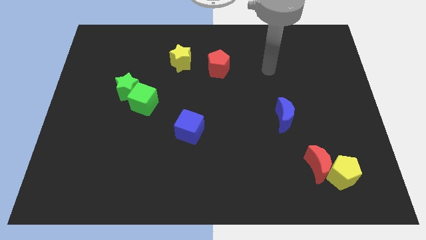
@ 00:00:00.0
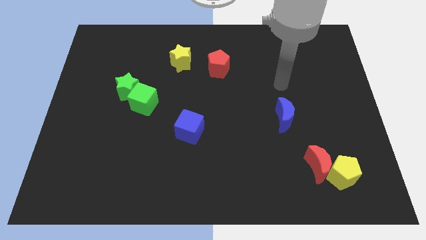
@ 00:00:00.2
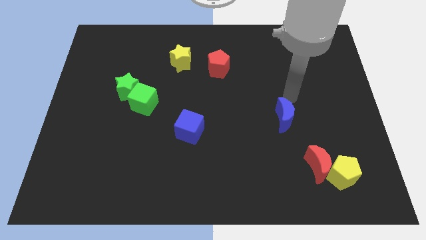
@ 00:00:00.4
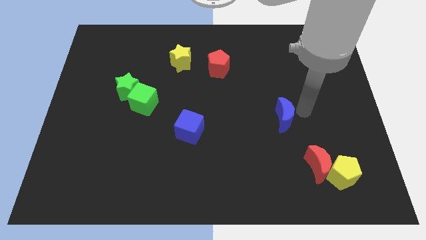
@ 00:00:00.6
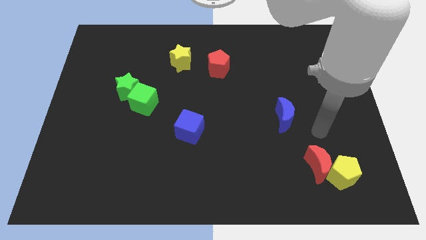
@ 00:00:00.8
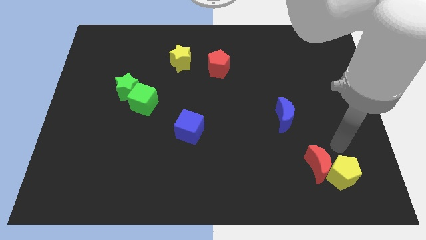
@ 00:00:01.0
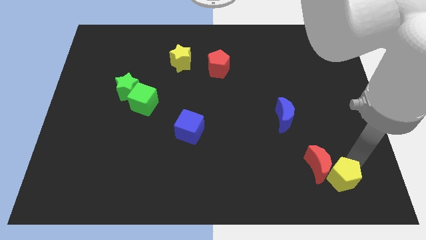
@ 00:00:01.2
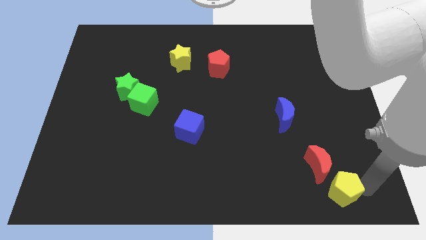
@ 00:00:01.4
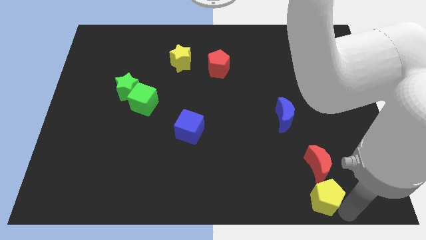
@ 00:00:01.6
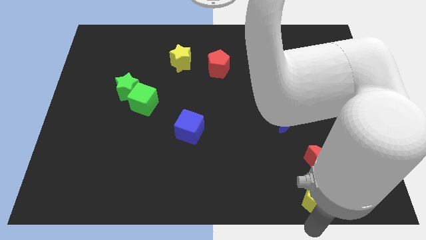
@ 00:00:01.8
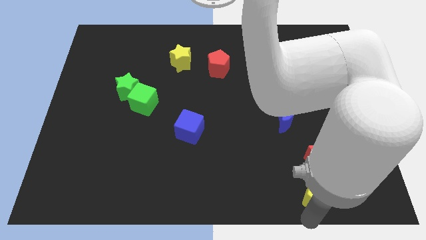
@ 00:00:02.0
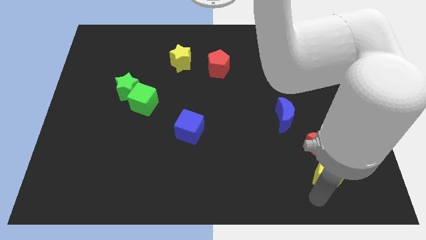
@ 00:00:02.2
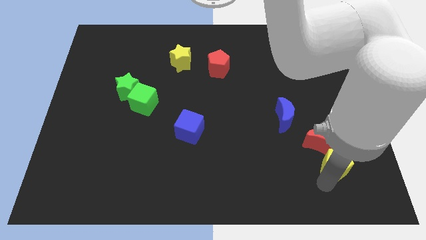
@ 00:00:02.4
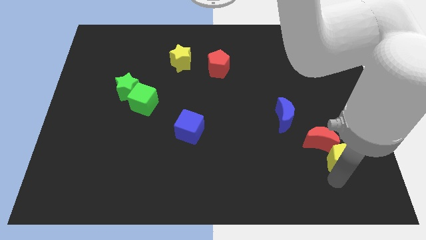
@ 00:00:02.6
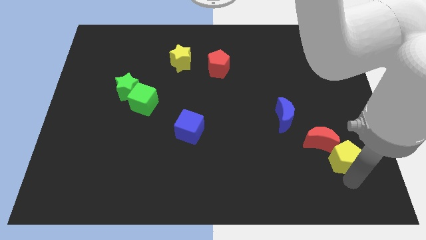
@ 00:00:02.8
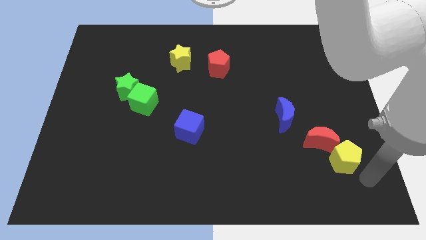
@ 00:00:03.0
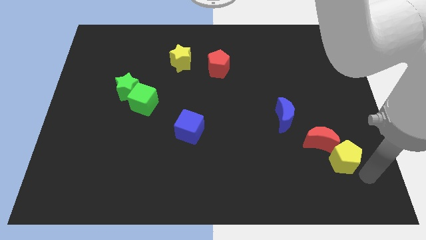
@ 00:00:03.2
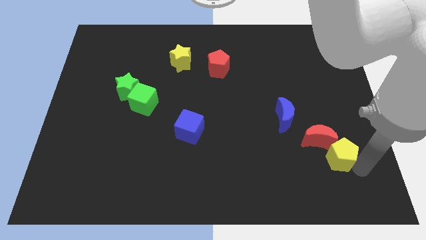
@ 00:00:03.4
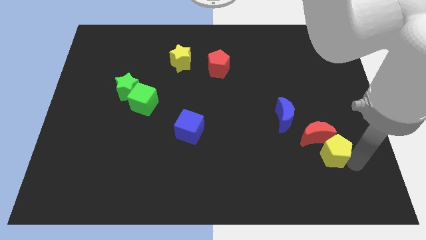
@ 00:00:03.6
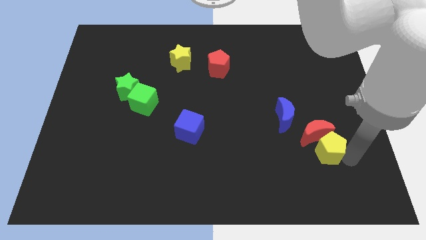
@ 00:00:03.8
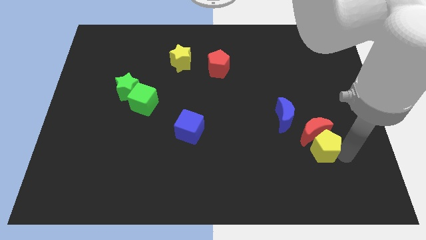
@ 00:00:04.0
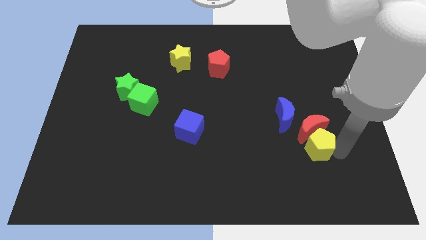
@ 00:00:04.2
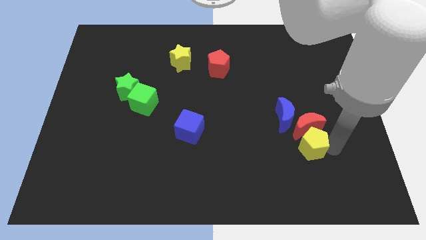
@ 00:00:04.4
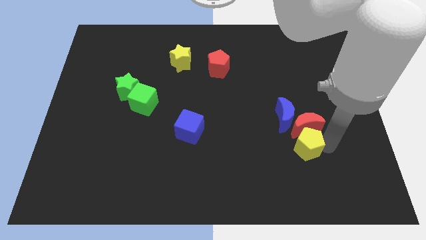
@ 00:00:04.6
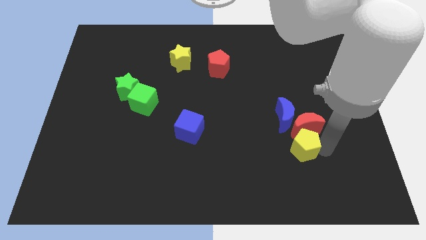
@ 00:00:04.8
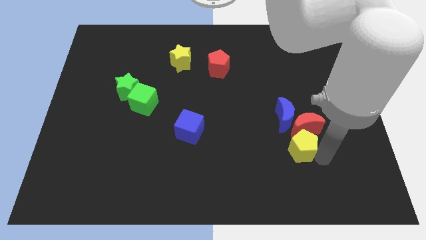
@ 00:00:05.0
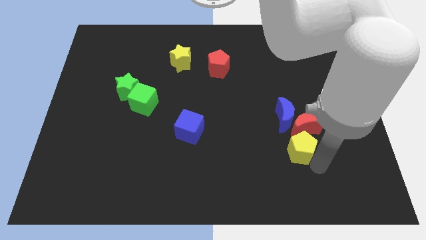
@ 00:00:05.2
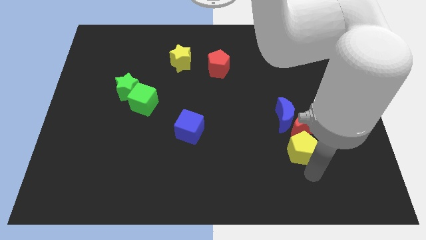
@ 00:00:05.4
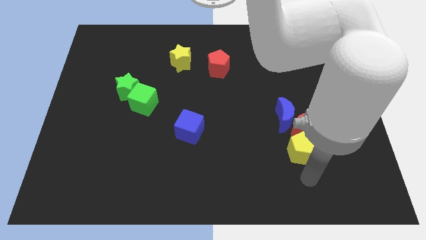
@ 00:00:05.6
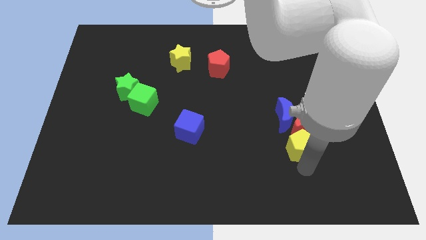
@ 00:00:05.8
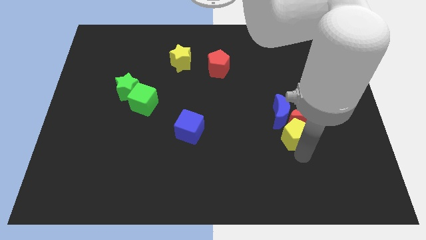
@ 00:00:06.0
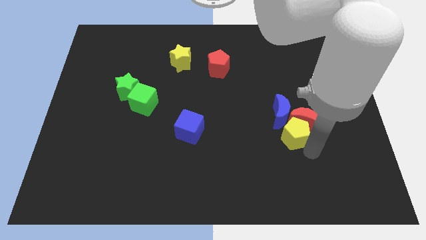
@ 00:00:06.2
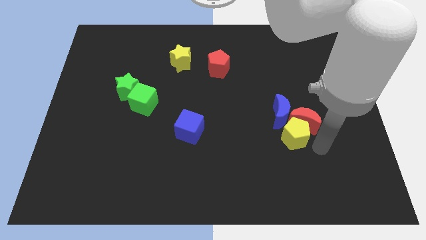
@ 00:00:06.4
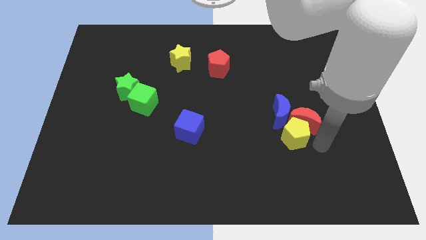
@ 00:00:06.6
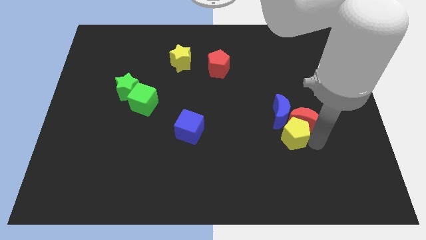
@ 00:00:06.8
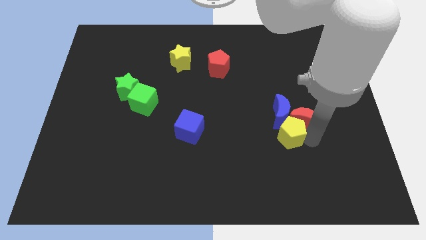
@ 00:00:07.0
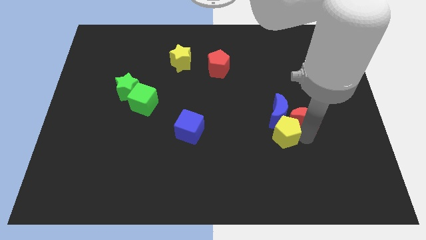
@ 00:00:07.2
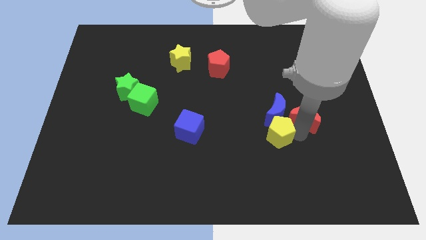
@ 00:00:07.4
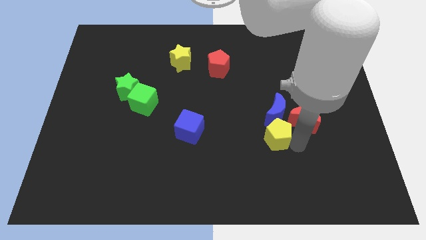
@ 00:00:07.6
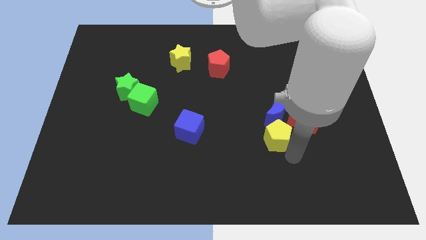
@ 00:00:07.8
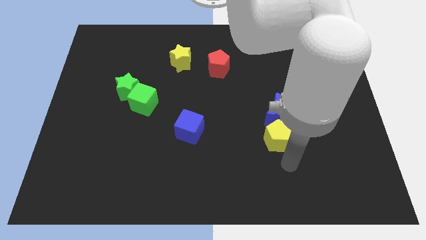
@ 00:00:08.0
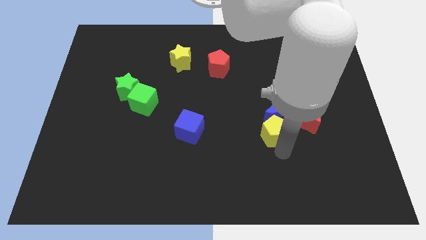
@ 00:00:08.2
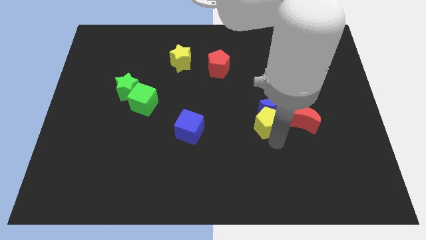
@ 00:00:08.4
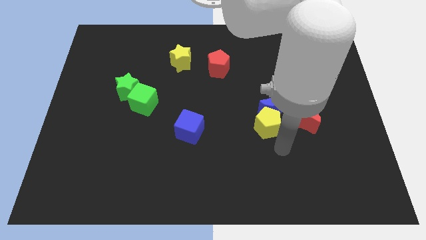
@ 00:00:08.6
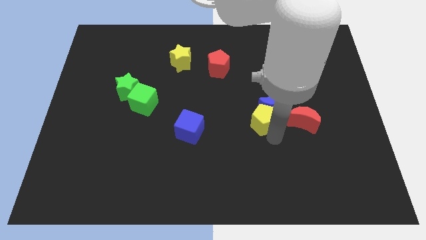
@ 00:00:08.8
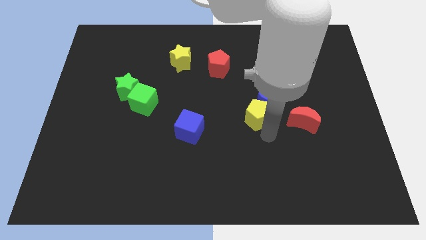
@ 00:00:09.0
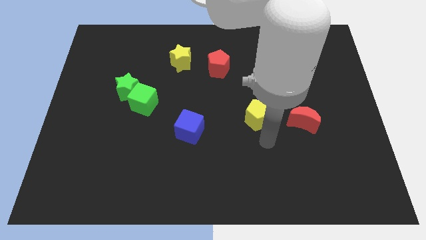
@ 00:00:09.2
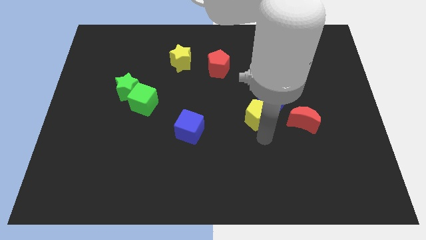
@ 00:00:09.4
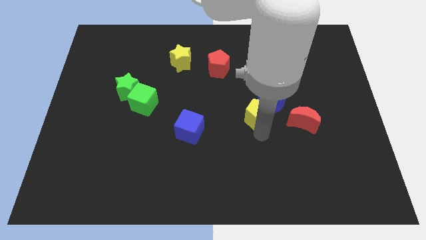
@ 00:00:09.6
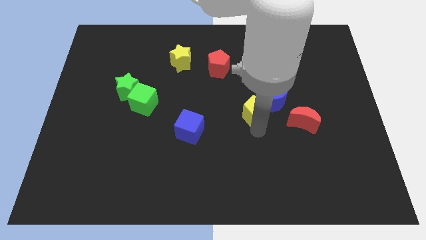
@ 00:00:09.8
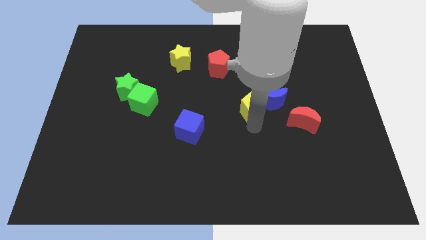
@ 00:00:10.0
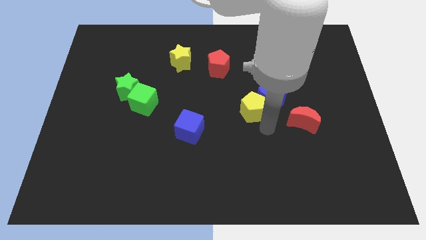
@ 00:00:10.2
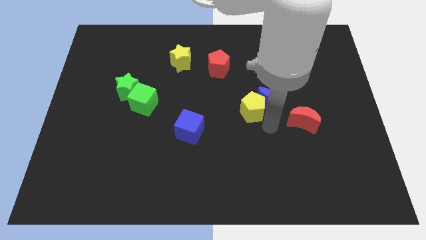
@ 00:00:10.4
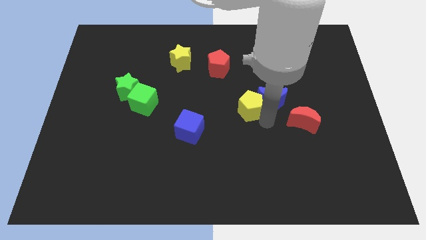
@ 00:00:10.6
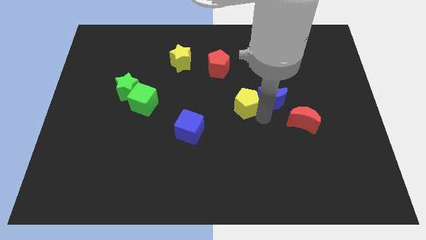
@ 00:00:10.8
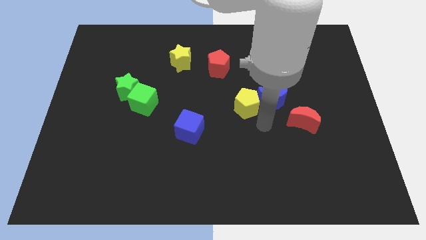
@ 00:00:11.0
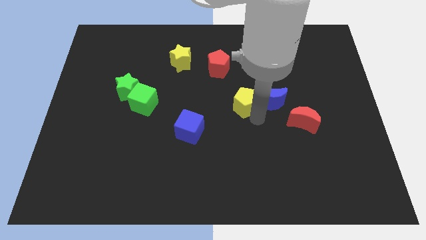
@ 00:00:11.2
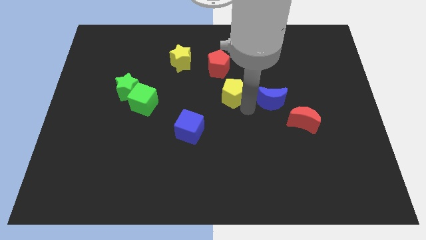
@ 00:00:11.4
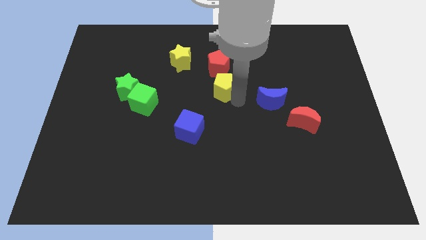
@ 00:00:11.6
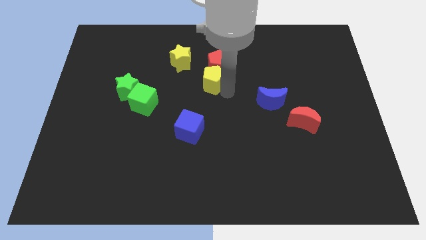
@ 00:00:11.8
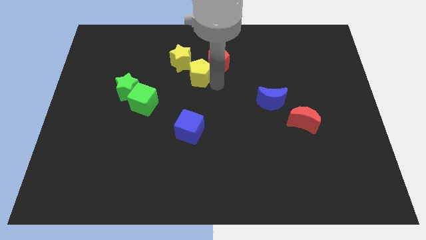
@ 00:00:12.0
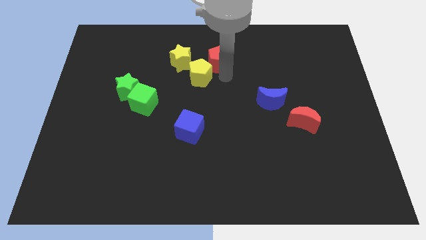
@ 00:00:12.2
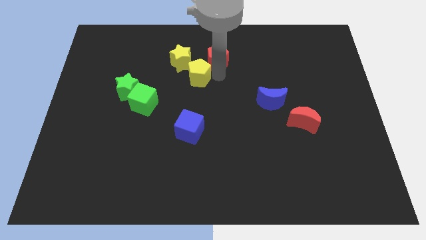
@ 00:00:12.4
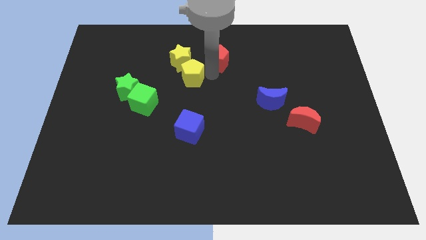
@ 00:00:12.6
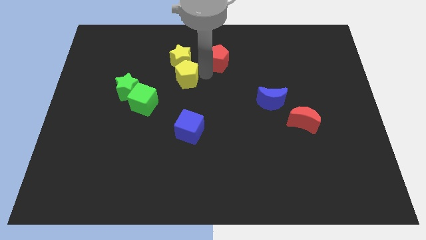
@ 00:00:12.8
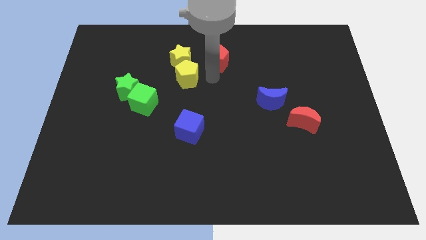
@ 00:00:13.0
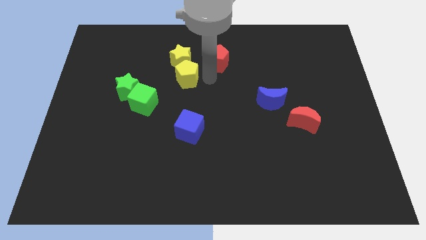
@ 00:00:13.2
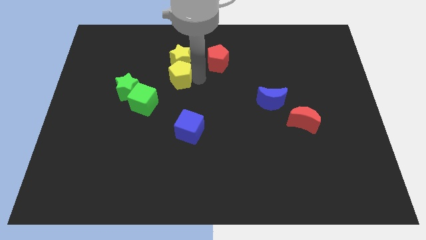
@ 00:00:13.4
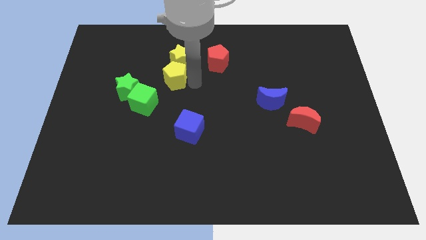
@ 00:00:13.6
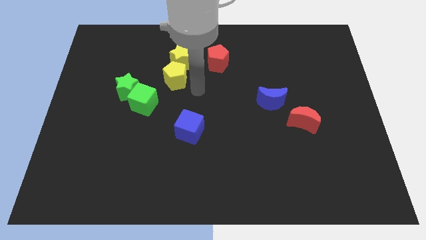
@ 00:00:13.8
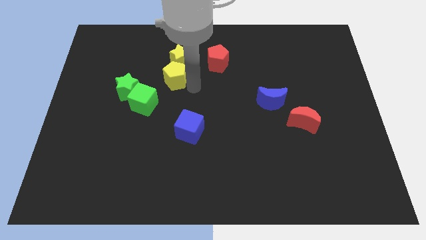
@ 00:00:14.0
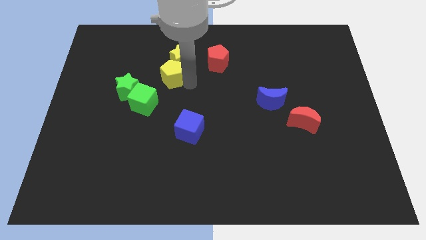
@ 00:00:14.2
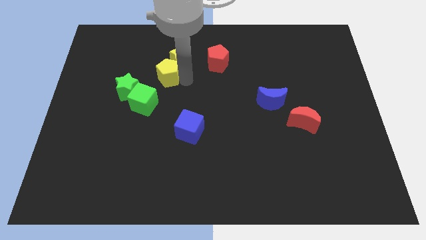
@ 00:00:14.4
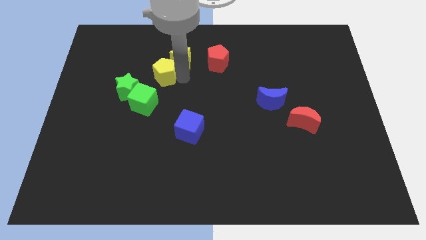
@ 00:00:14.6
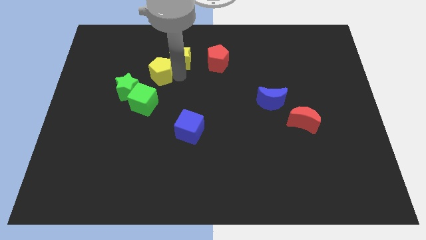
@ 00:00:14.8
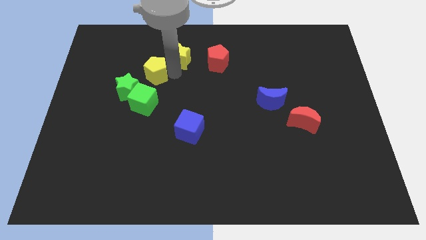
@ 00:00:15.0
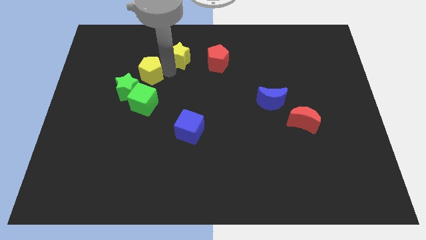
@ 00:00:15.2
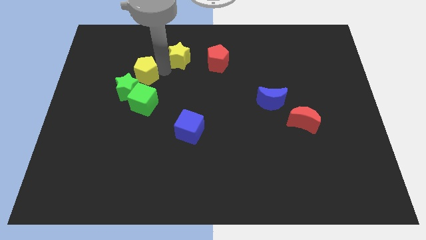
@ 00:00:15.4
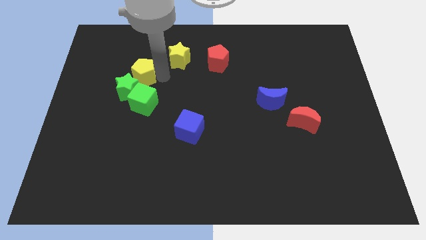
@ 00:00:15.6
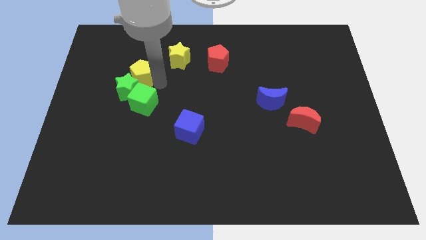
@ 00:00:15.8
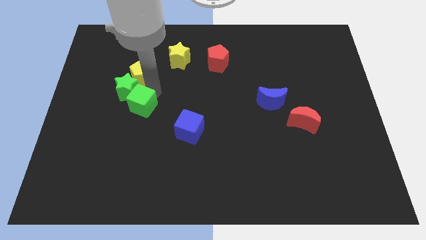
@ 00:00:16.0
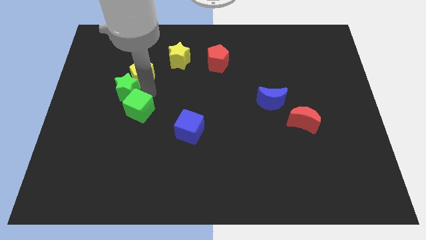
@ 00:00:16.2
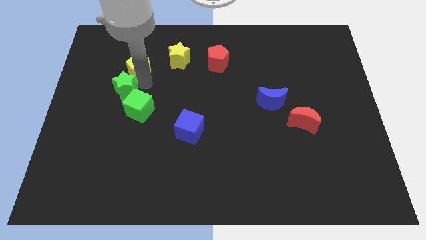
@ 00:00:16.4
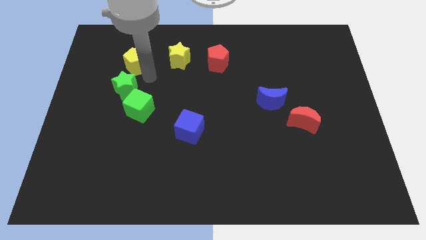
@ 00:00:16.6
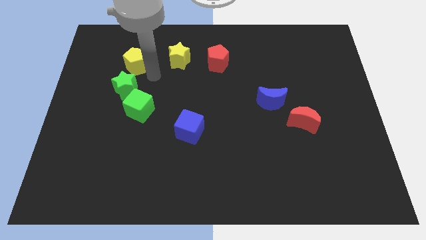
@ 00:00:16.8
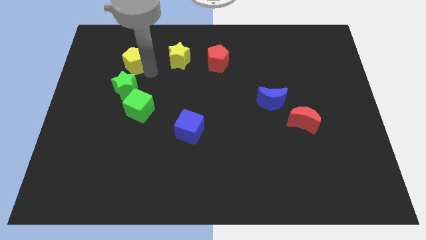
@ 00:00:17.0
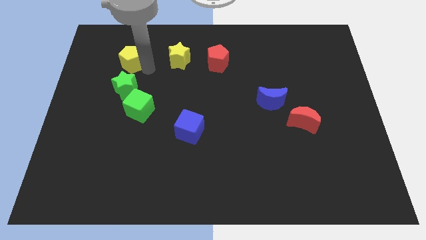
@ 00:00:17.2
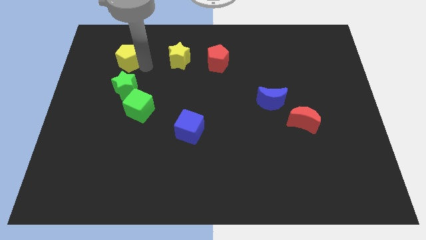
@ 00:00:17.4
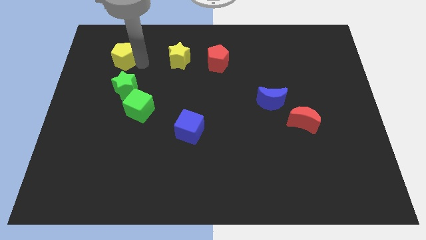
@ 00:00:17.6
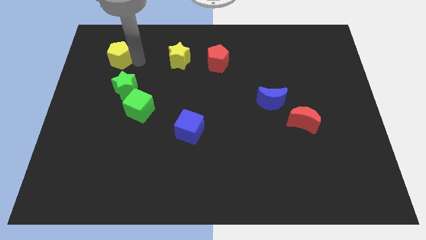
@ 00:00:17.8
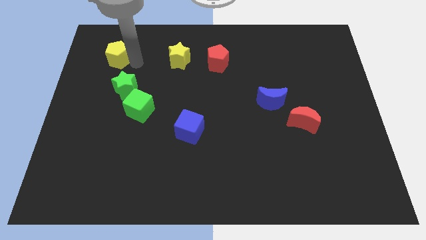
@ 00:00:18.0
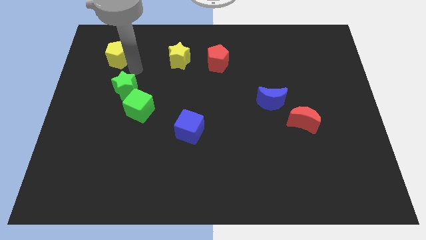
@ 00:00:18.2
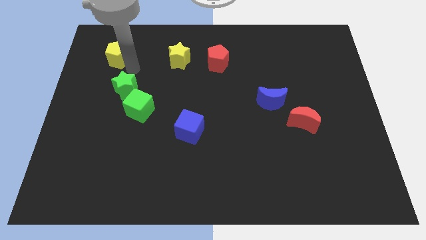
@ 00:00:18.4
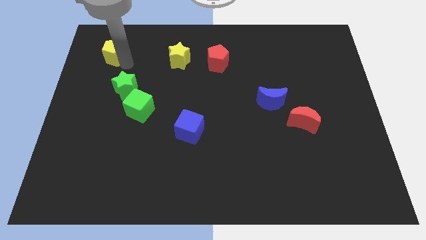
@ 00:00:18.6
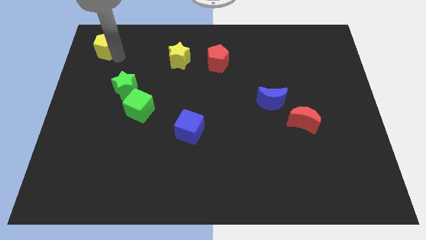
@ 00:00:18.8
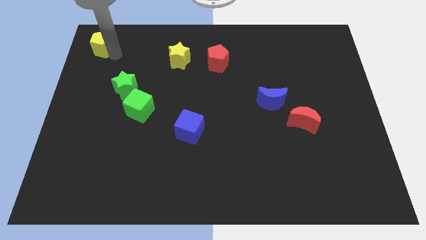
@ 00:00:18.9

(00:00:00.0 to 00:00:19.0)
put the yellow pentagon to the upper left corner
